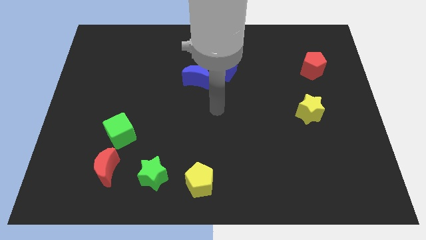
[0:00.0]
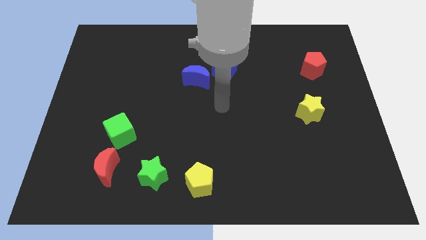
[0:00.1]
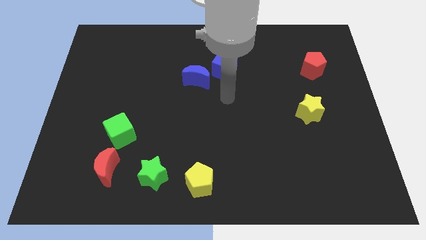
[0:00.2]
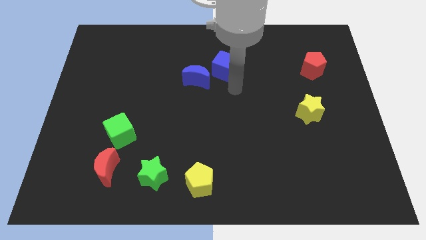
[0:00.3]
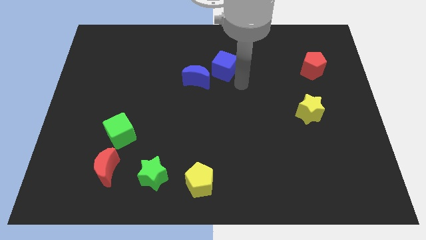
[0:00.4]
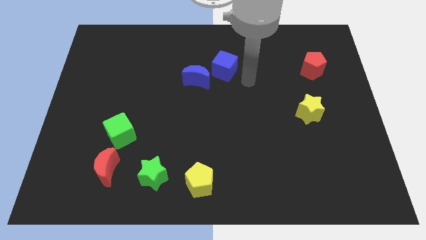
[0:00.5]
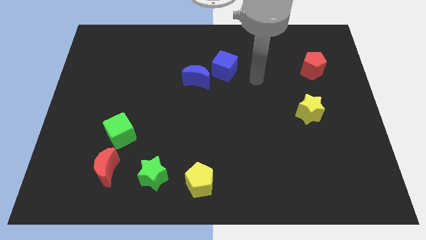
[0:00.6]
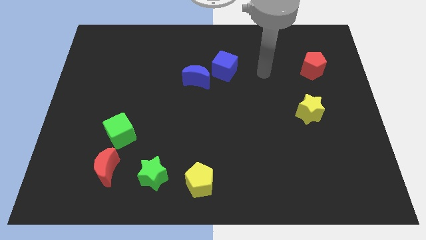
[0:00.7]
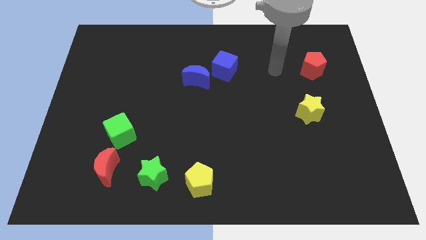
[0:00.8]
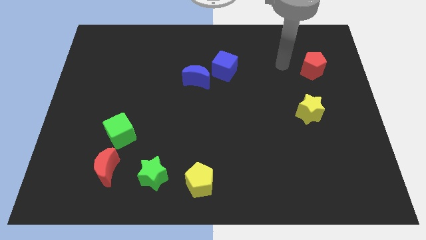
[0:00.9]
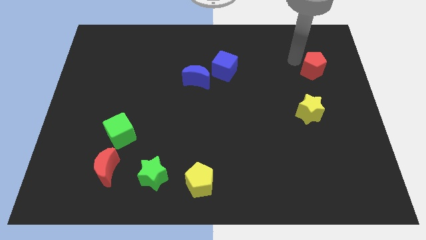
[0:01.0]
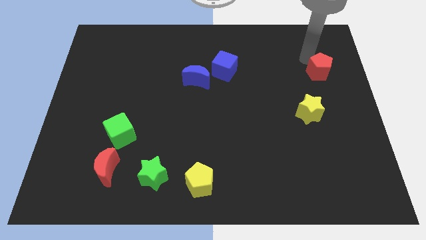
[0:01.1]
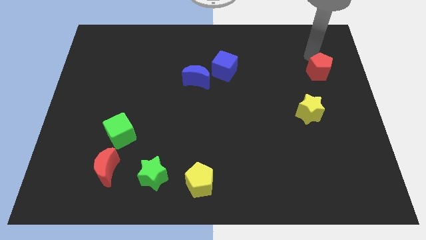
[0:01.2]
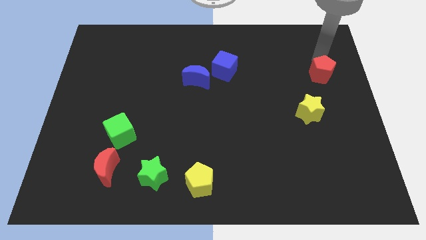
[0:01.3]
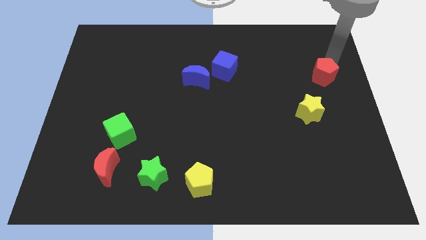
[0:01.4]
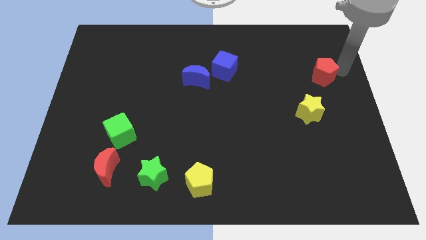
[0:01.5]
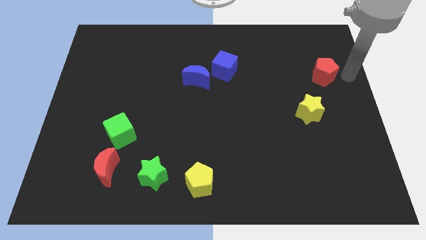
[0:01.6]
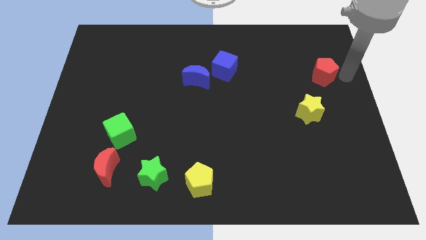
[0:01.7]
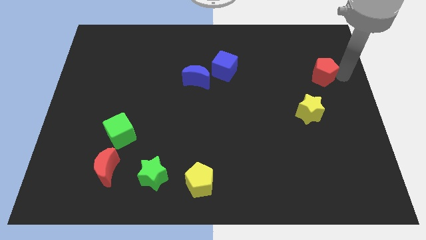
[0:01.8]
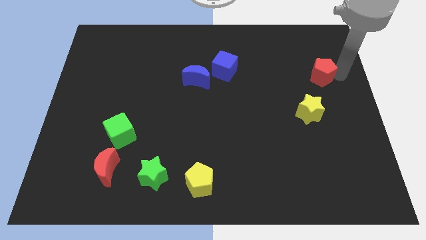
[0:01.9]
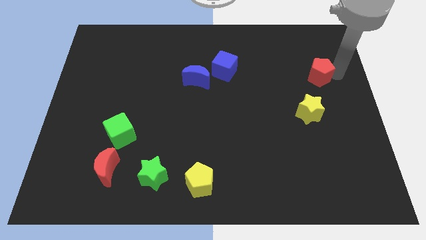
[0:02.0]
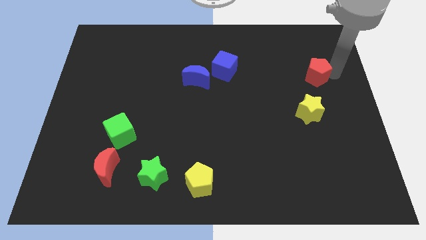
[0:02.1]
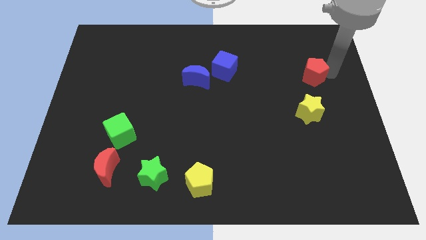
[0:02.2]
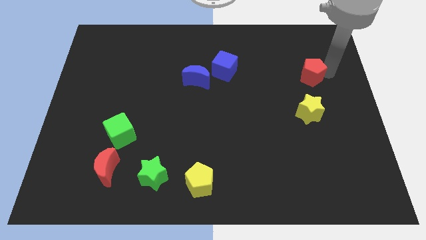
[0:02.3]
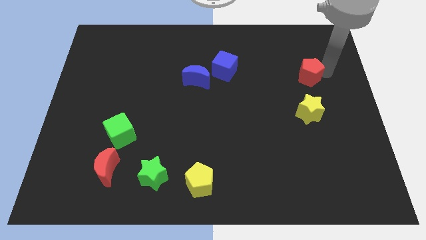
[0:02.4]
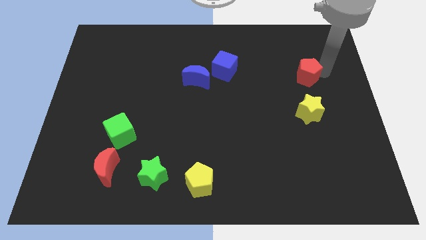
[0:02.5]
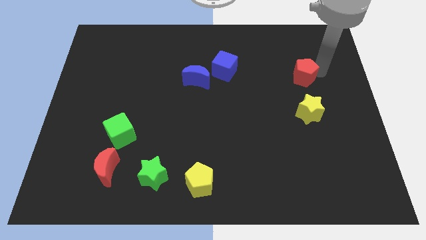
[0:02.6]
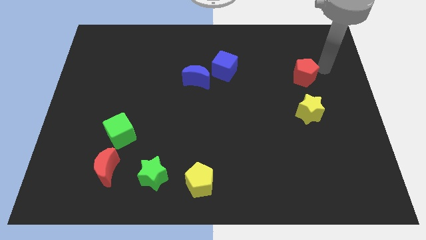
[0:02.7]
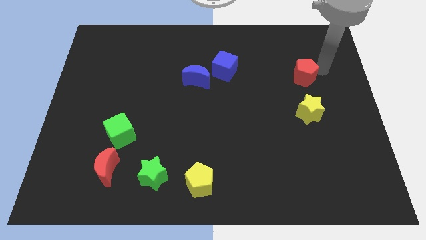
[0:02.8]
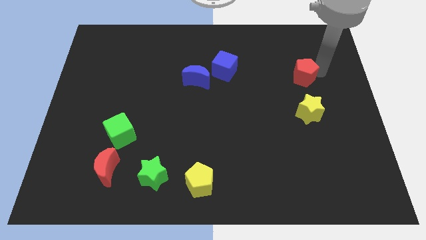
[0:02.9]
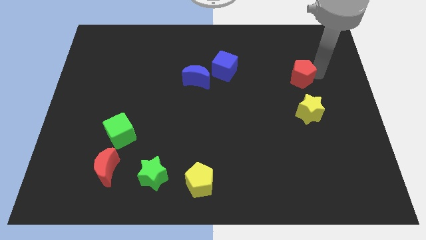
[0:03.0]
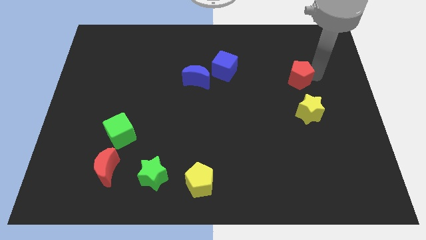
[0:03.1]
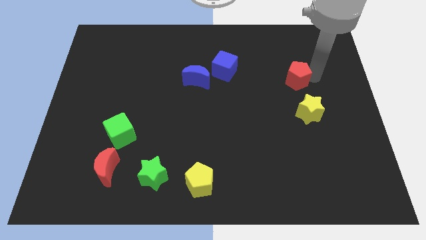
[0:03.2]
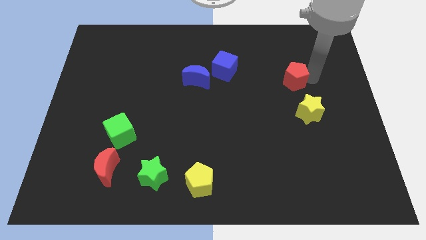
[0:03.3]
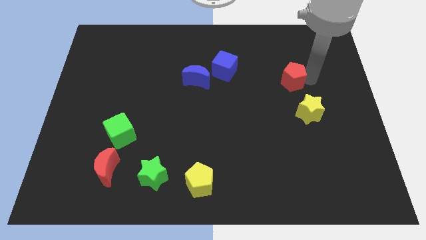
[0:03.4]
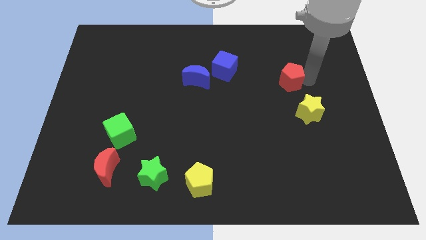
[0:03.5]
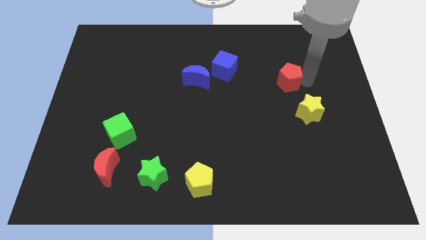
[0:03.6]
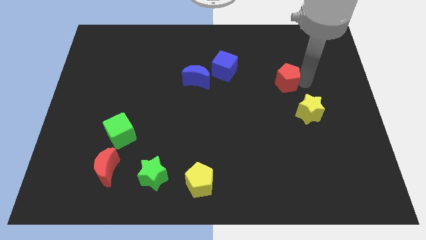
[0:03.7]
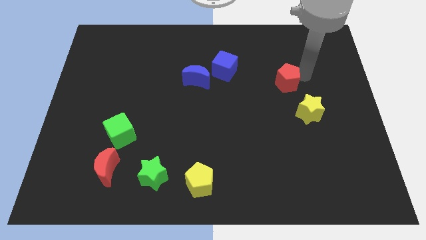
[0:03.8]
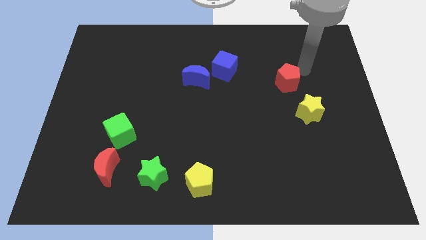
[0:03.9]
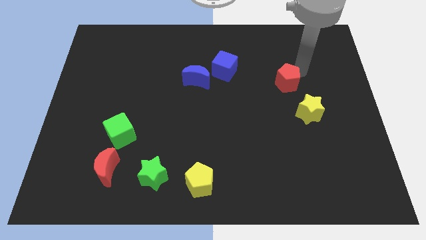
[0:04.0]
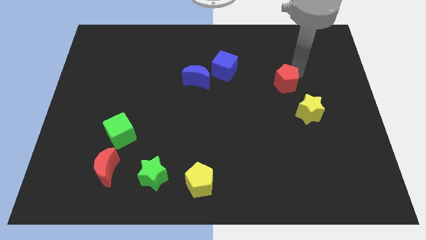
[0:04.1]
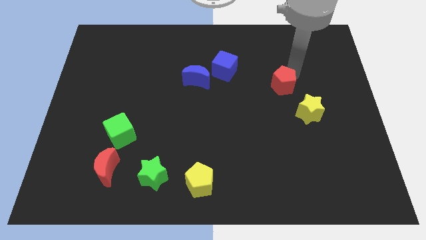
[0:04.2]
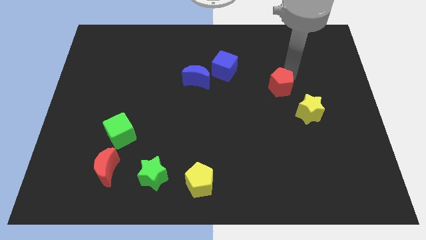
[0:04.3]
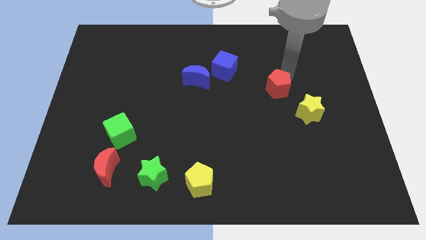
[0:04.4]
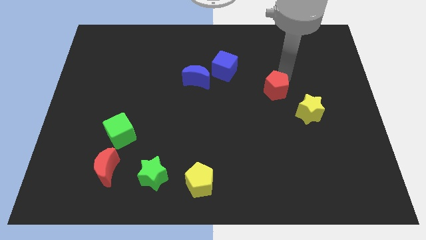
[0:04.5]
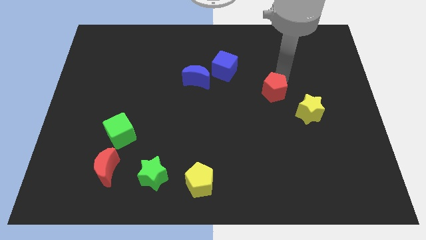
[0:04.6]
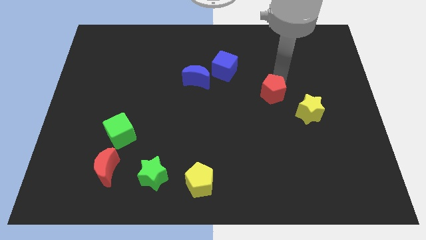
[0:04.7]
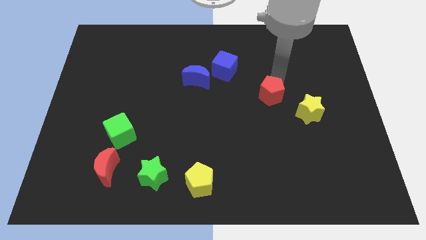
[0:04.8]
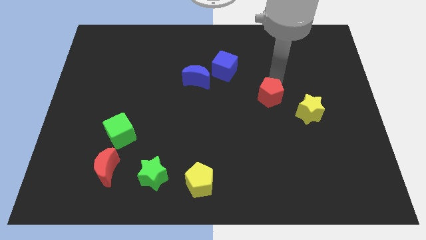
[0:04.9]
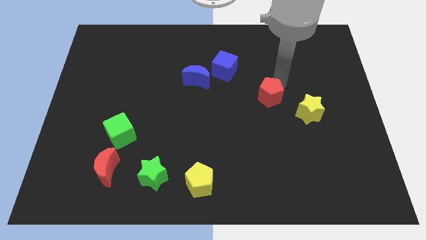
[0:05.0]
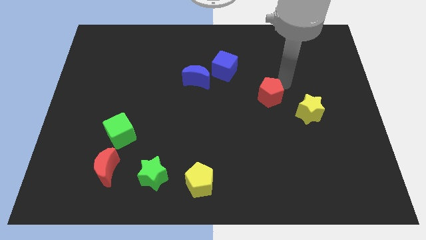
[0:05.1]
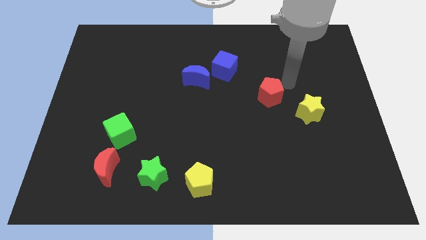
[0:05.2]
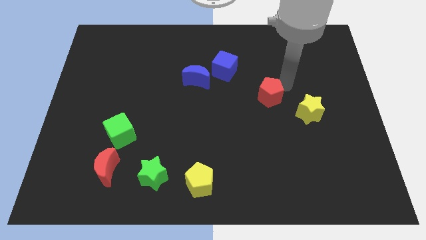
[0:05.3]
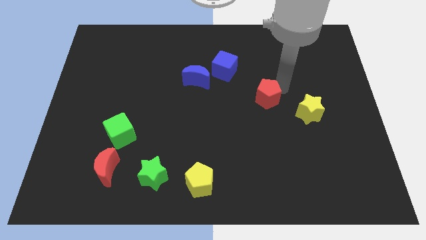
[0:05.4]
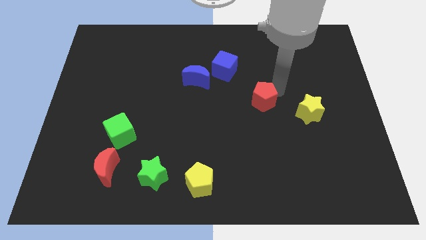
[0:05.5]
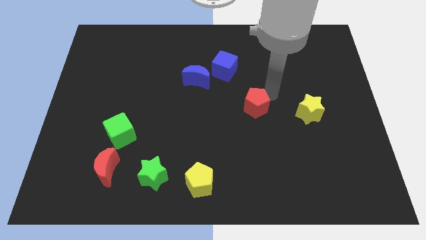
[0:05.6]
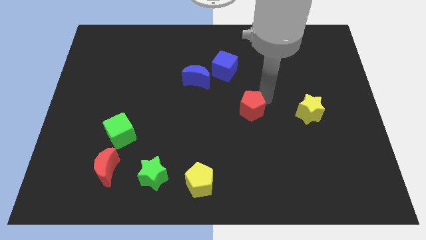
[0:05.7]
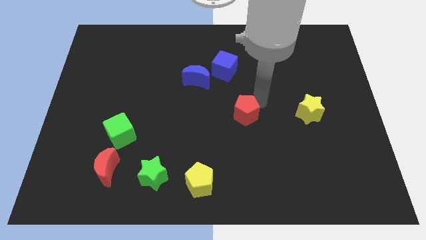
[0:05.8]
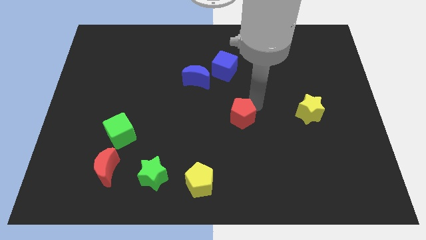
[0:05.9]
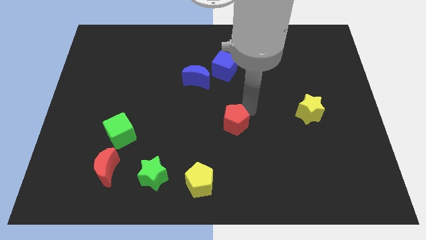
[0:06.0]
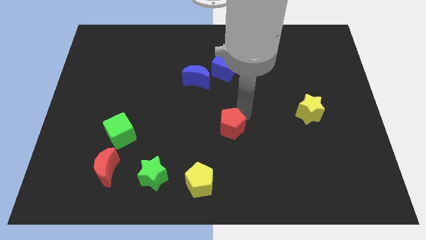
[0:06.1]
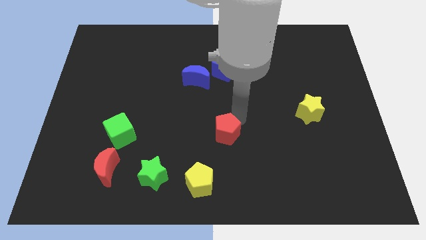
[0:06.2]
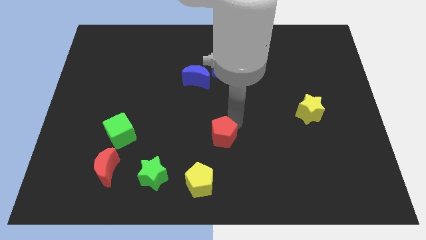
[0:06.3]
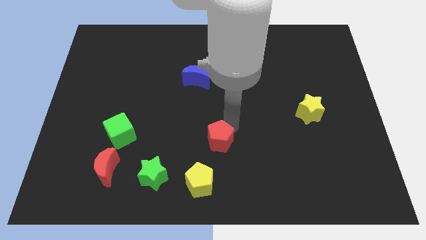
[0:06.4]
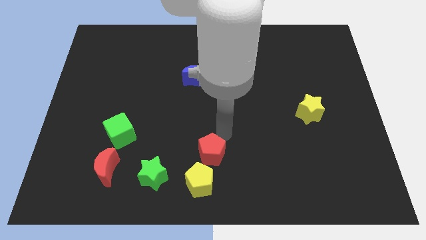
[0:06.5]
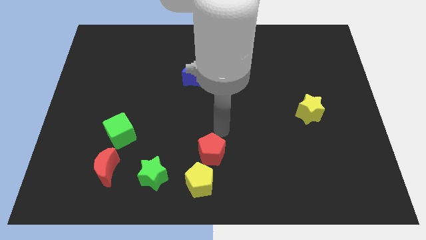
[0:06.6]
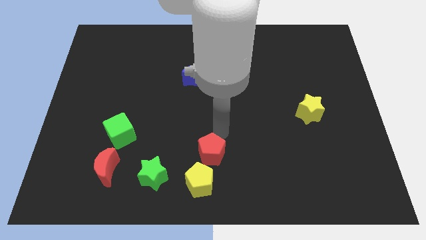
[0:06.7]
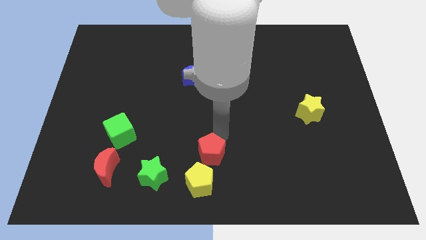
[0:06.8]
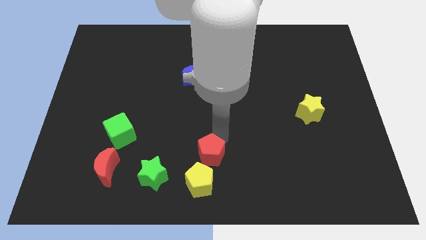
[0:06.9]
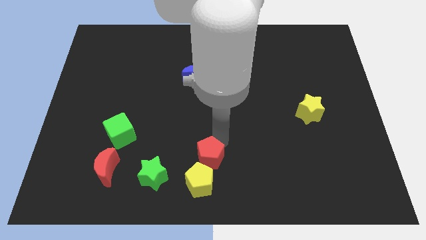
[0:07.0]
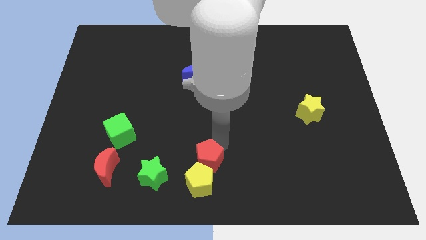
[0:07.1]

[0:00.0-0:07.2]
put the red pentagon towards the yellow pentagon
